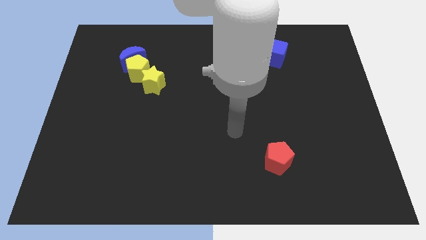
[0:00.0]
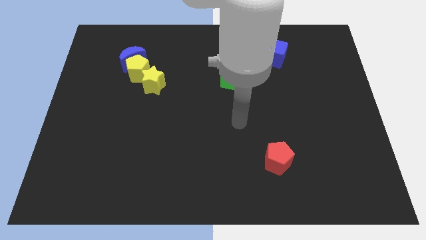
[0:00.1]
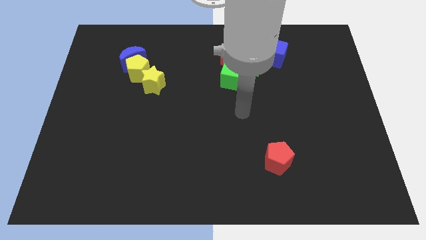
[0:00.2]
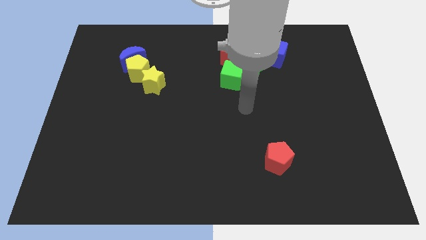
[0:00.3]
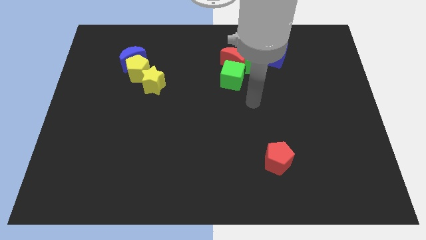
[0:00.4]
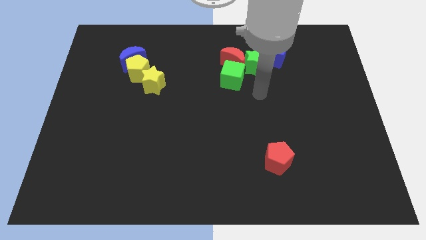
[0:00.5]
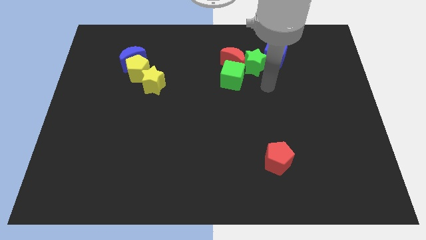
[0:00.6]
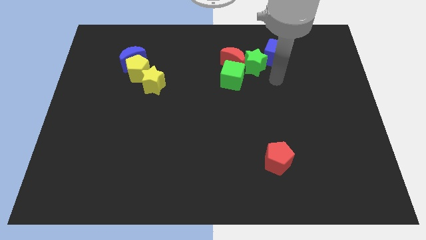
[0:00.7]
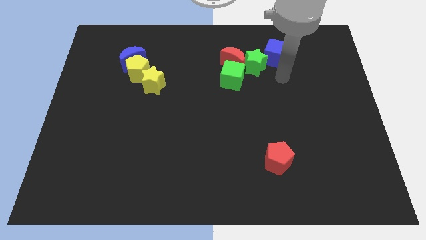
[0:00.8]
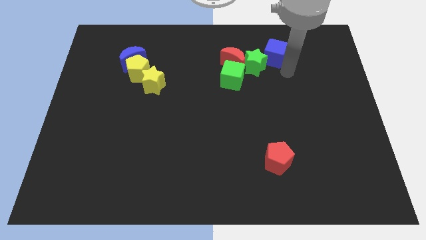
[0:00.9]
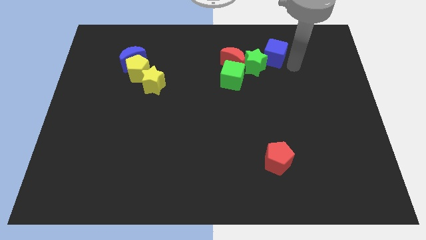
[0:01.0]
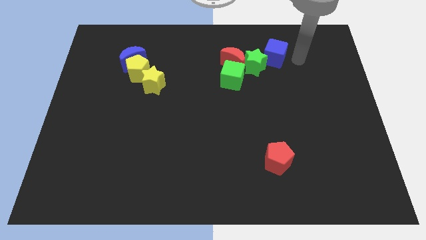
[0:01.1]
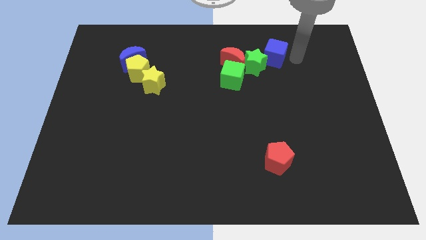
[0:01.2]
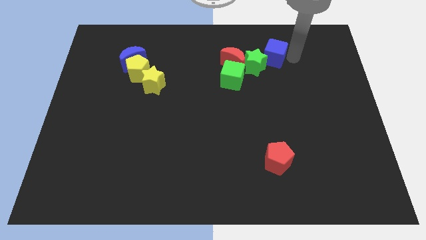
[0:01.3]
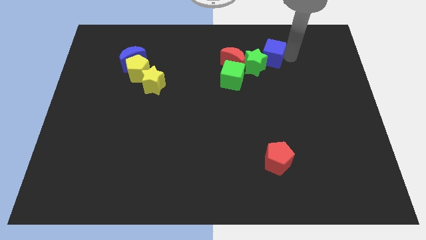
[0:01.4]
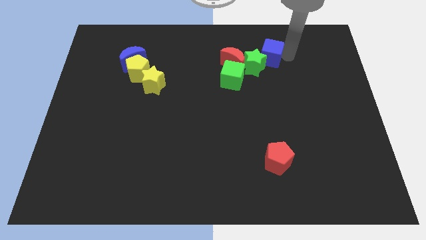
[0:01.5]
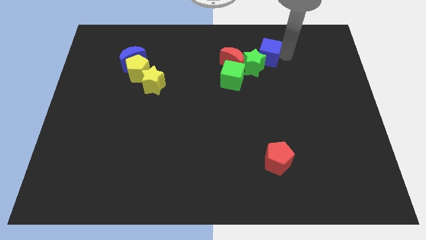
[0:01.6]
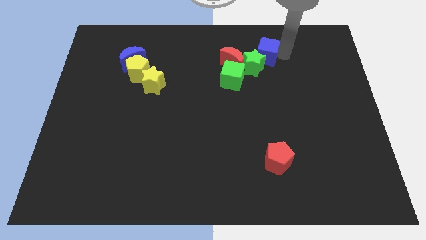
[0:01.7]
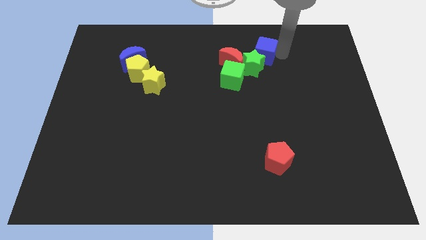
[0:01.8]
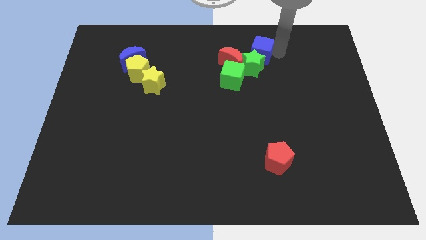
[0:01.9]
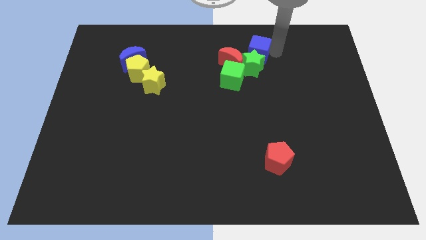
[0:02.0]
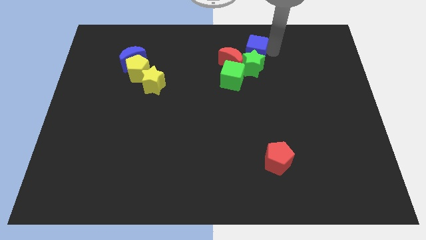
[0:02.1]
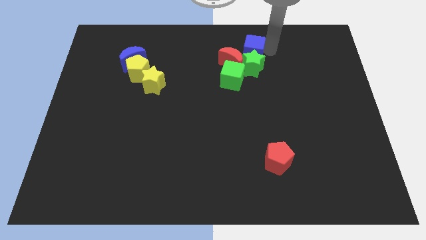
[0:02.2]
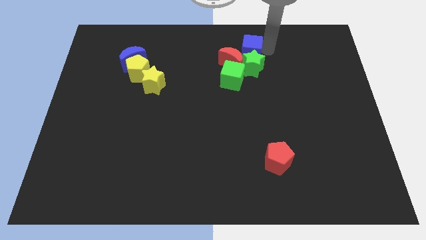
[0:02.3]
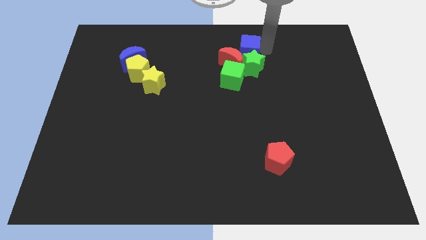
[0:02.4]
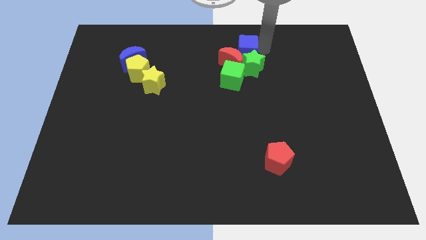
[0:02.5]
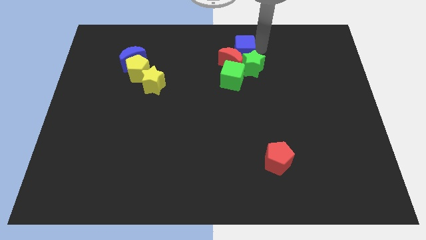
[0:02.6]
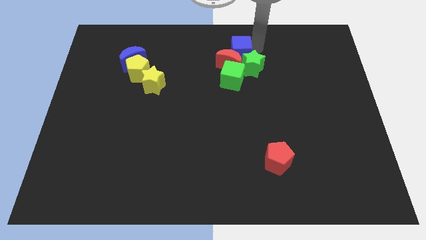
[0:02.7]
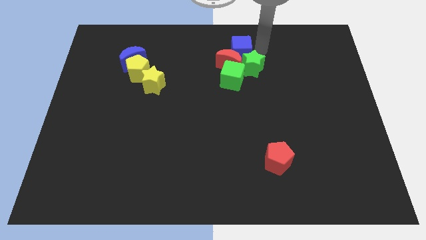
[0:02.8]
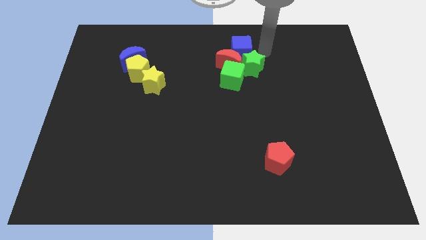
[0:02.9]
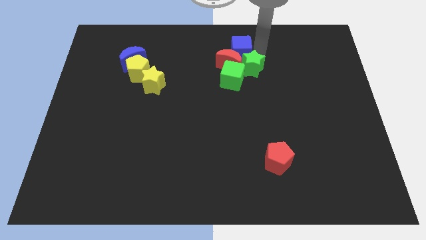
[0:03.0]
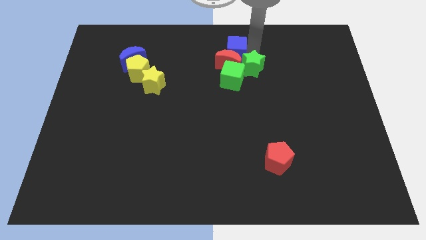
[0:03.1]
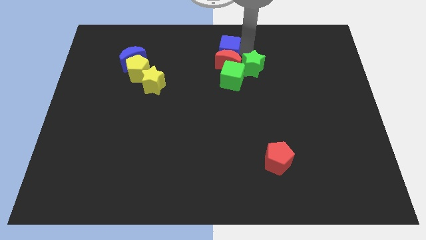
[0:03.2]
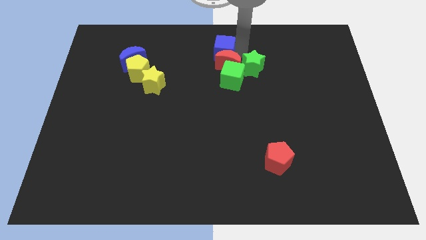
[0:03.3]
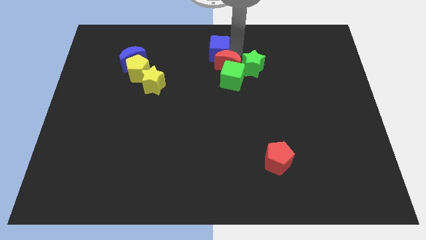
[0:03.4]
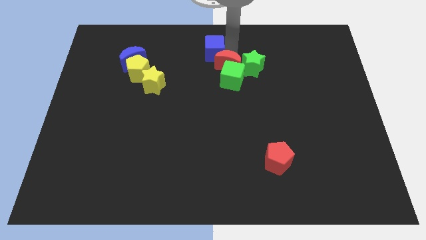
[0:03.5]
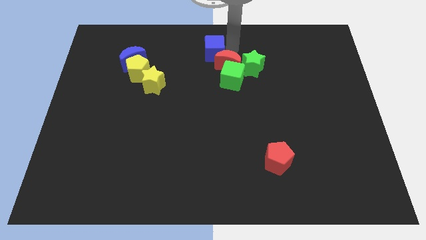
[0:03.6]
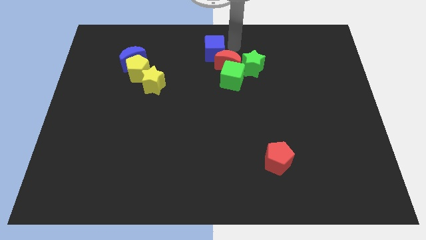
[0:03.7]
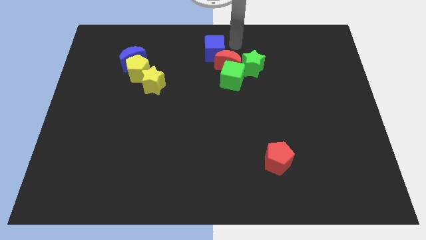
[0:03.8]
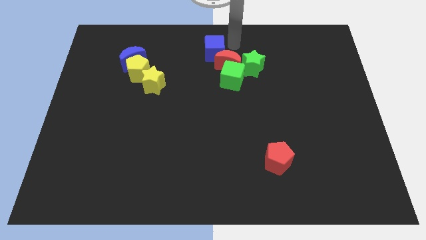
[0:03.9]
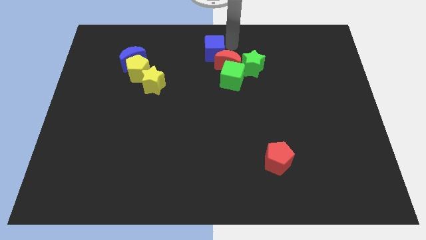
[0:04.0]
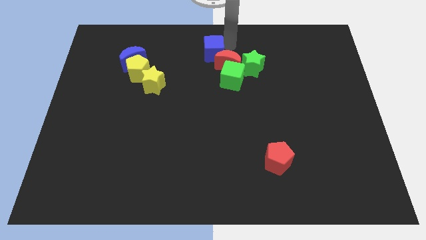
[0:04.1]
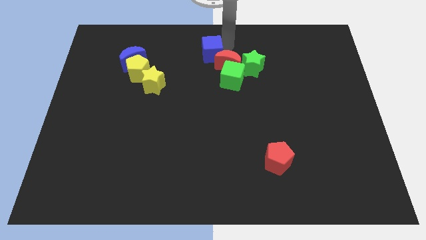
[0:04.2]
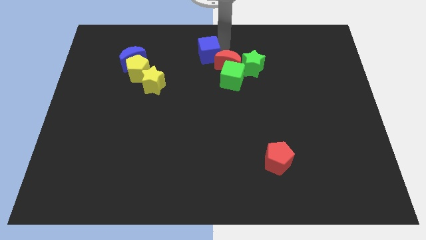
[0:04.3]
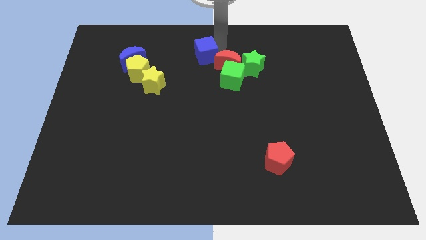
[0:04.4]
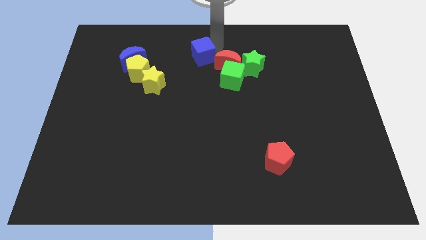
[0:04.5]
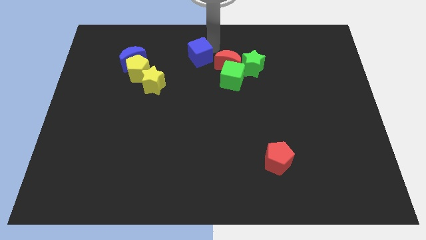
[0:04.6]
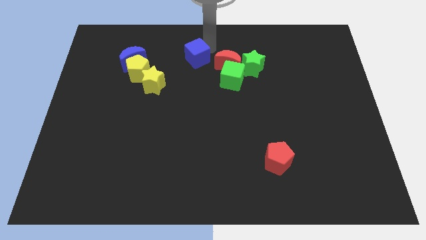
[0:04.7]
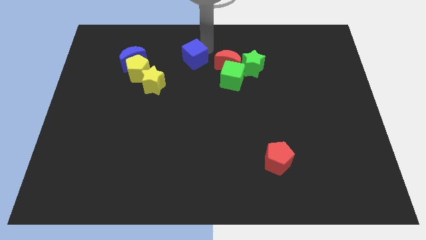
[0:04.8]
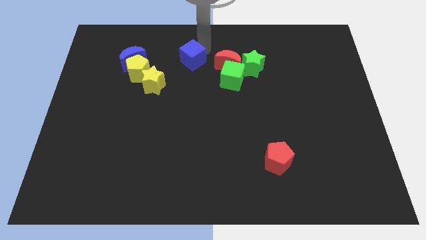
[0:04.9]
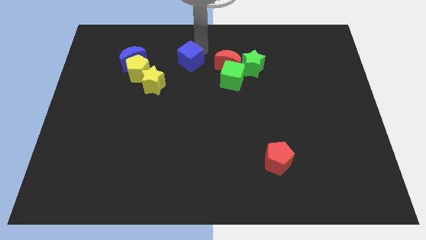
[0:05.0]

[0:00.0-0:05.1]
move the blue cube just right of the yellow pentagon

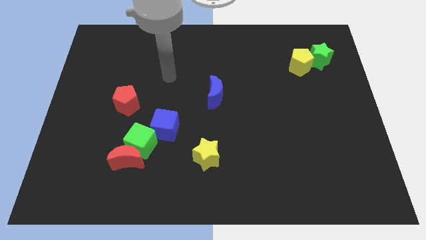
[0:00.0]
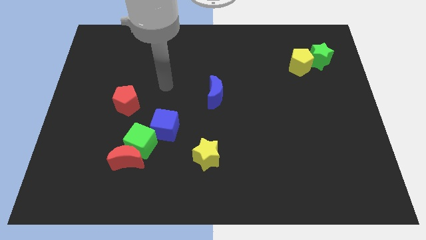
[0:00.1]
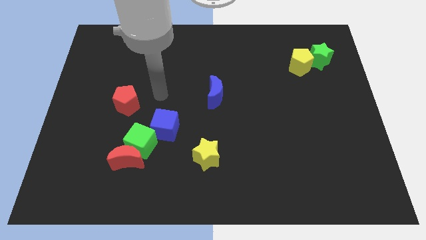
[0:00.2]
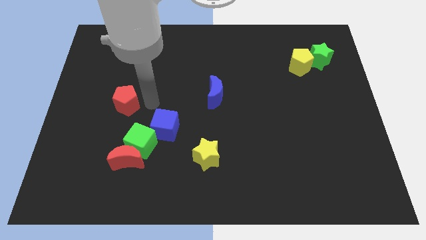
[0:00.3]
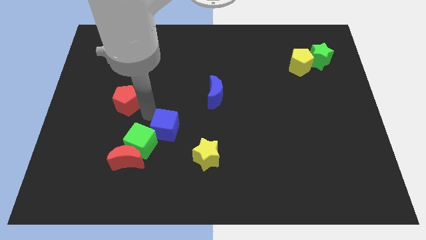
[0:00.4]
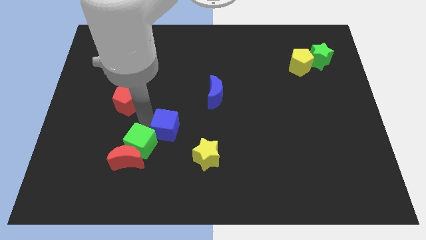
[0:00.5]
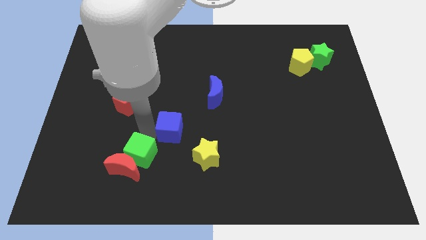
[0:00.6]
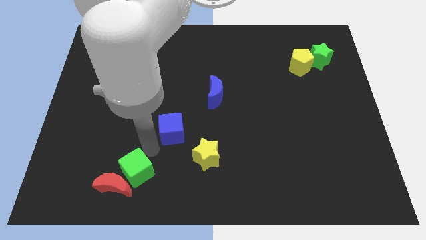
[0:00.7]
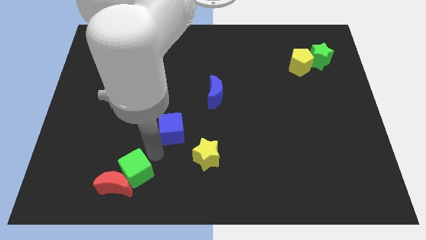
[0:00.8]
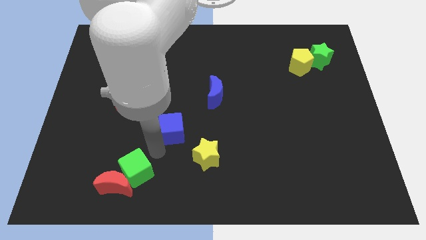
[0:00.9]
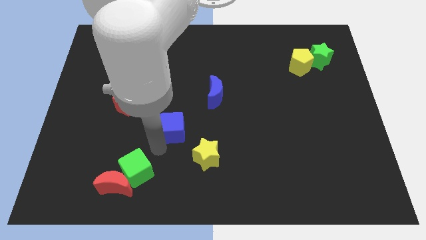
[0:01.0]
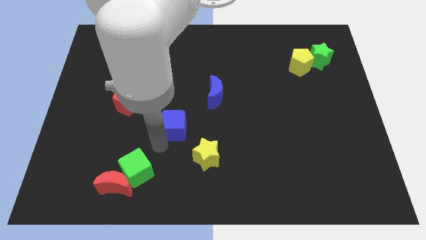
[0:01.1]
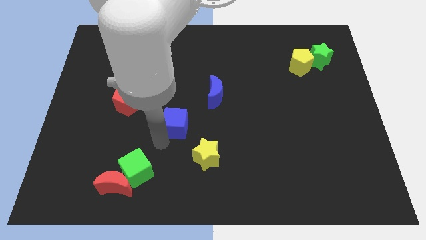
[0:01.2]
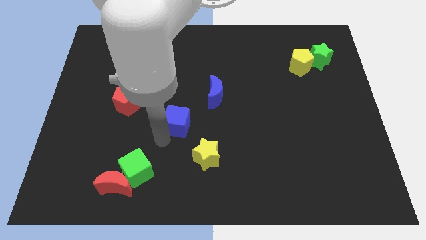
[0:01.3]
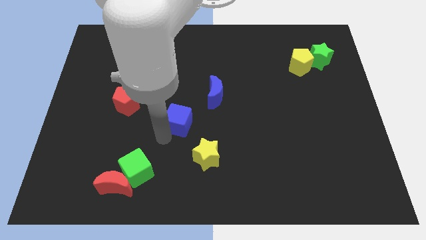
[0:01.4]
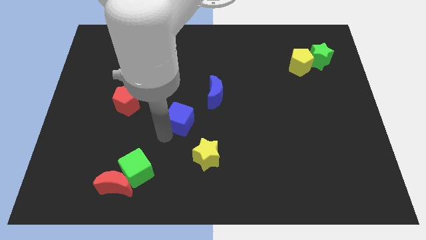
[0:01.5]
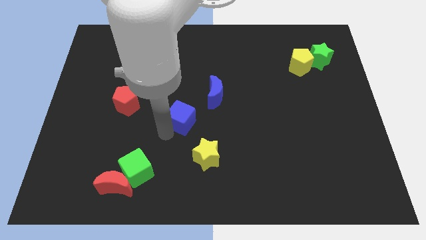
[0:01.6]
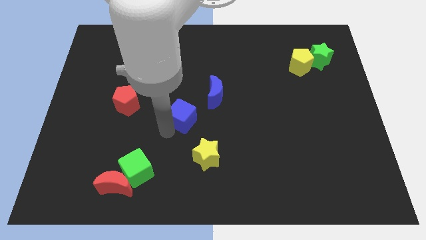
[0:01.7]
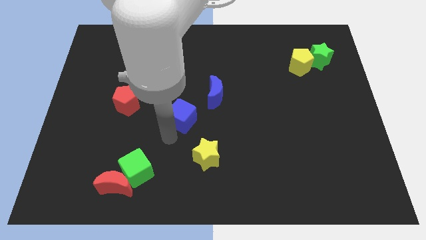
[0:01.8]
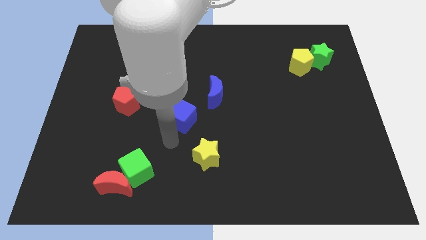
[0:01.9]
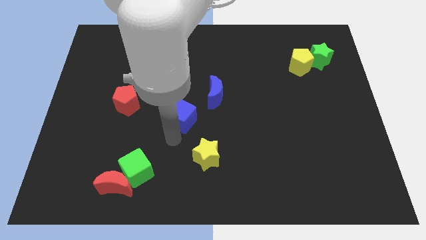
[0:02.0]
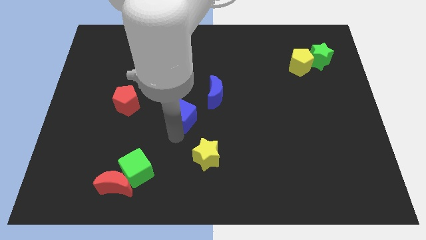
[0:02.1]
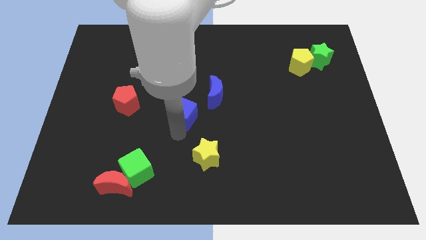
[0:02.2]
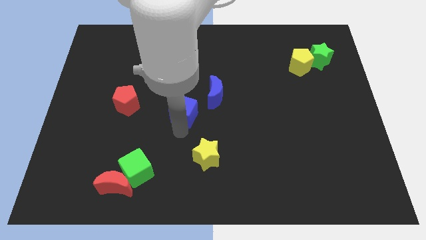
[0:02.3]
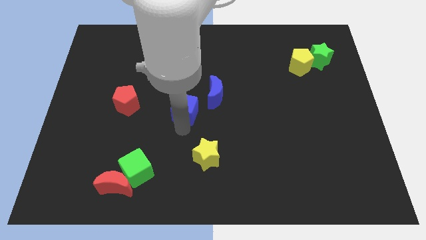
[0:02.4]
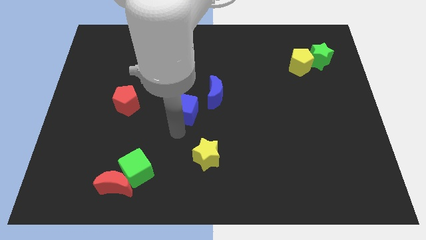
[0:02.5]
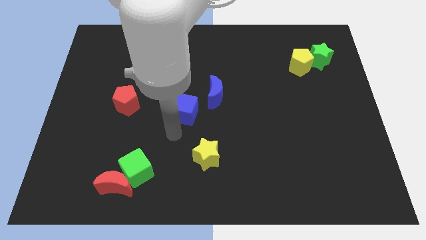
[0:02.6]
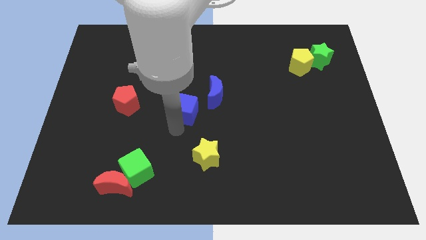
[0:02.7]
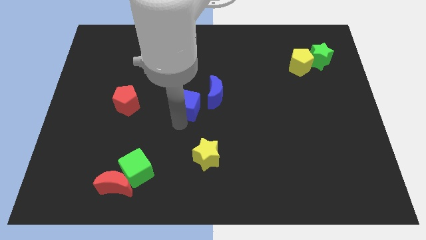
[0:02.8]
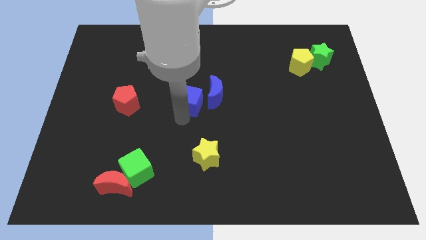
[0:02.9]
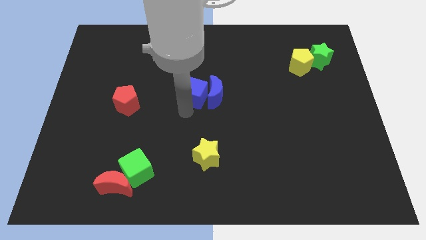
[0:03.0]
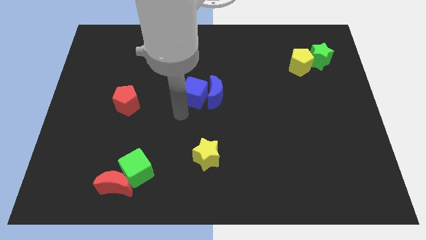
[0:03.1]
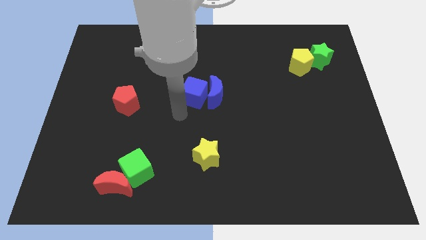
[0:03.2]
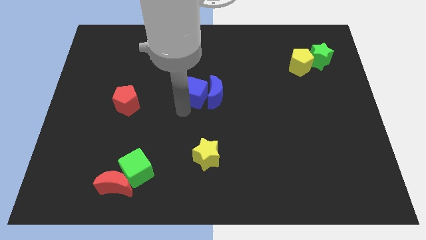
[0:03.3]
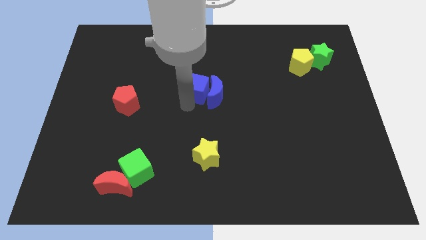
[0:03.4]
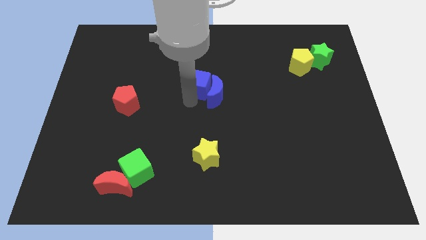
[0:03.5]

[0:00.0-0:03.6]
slide the blue cube to the top side of the blue moon
